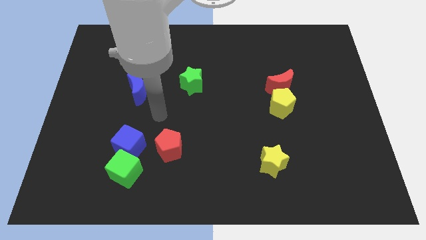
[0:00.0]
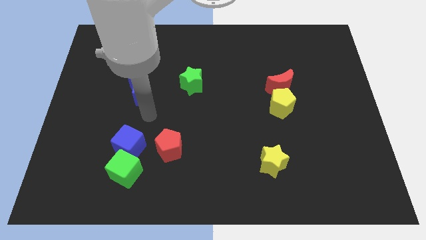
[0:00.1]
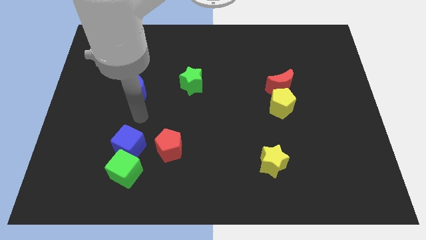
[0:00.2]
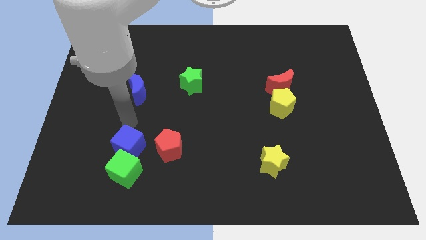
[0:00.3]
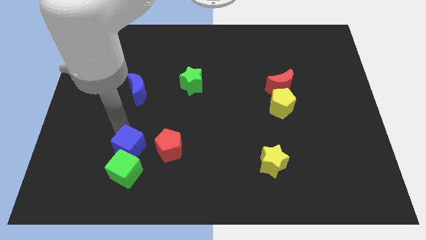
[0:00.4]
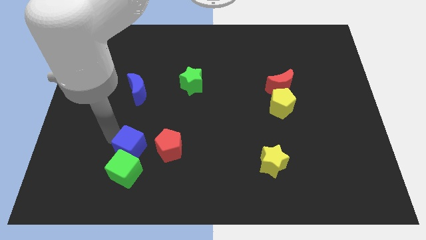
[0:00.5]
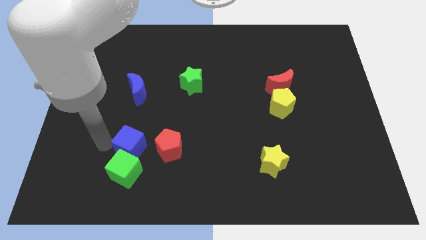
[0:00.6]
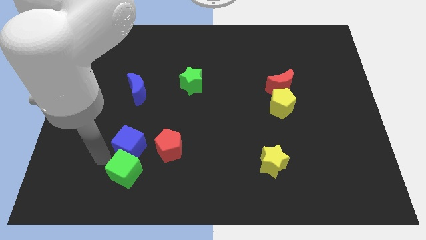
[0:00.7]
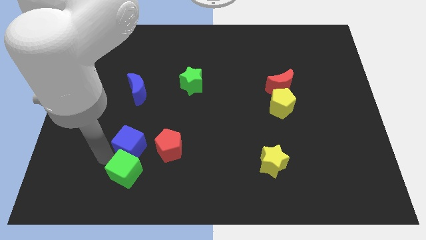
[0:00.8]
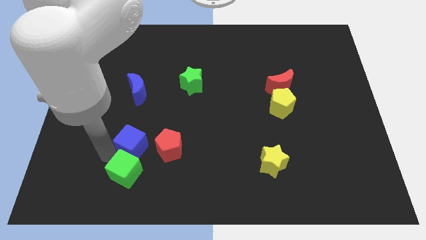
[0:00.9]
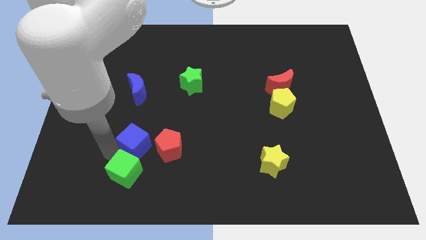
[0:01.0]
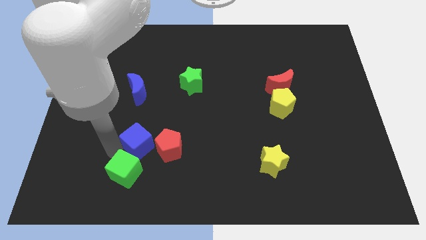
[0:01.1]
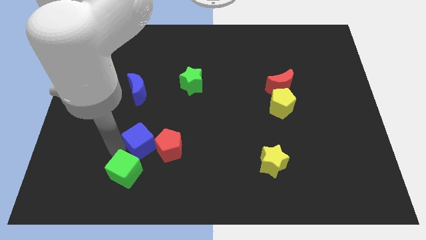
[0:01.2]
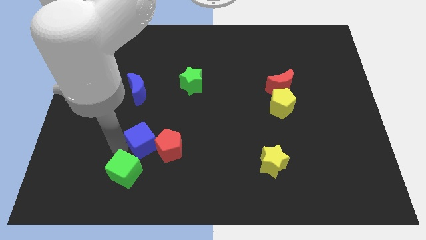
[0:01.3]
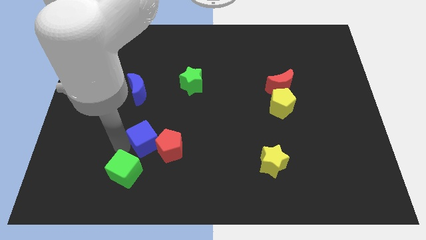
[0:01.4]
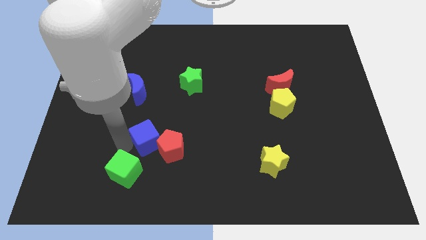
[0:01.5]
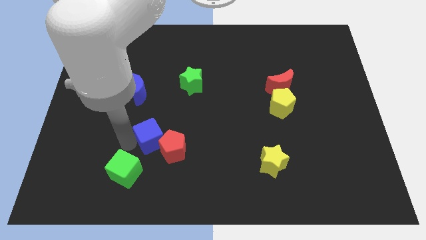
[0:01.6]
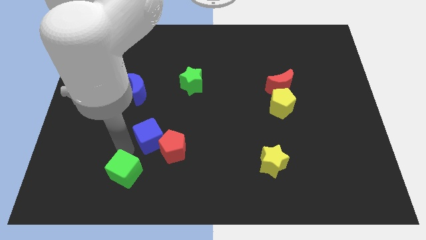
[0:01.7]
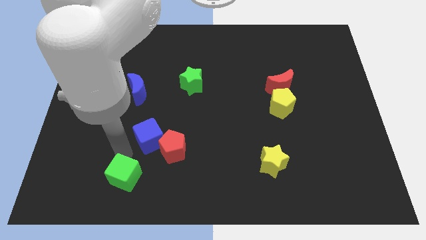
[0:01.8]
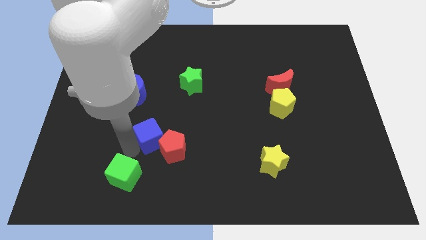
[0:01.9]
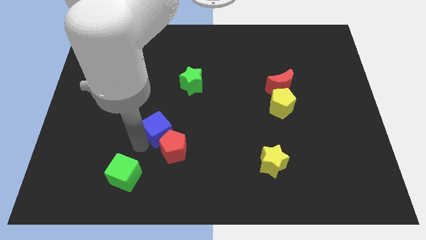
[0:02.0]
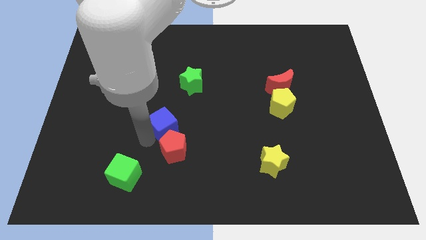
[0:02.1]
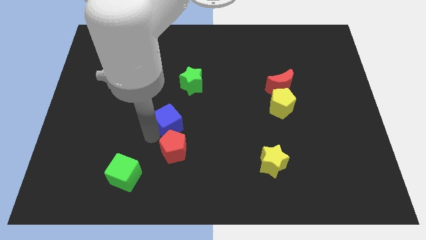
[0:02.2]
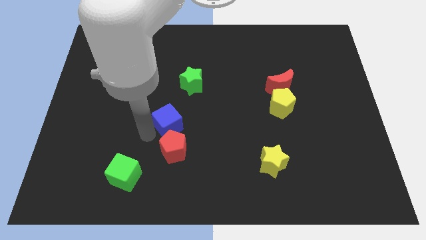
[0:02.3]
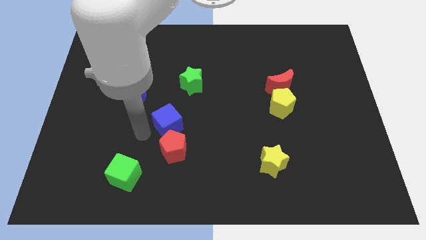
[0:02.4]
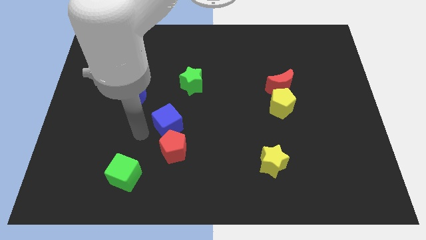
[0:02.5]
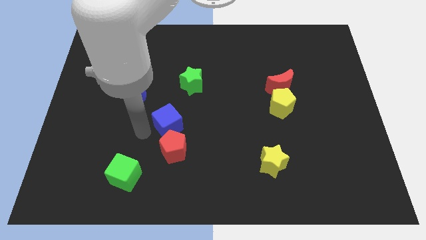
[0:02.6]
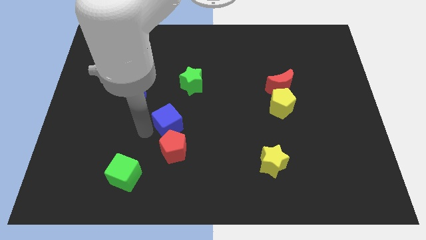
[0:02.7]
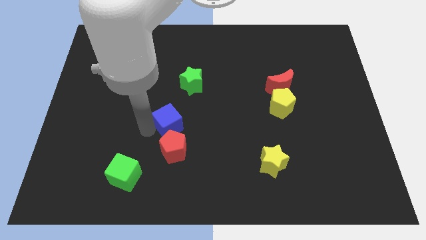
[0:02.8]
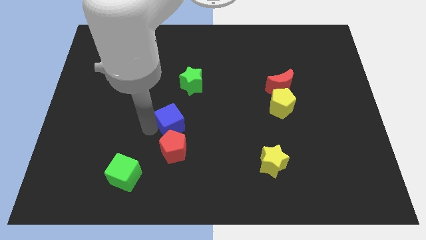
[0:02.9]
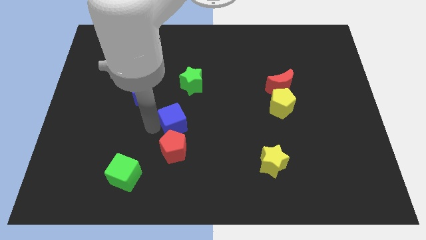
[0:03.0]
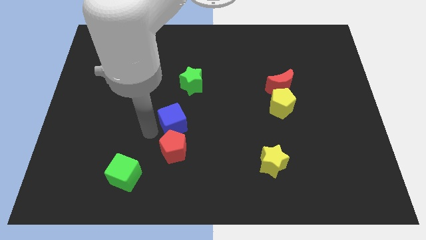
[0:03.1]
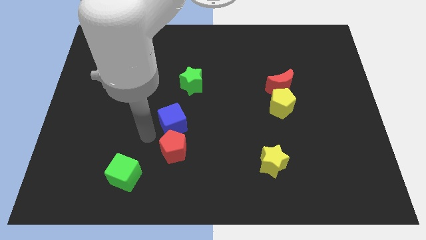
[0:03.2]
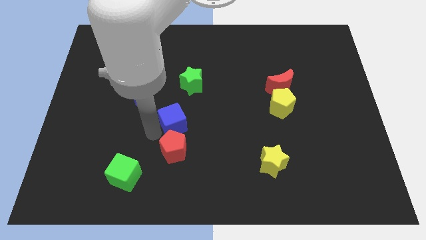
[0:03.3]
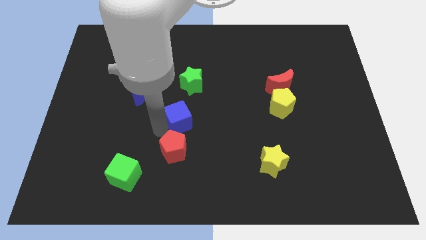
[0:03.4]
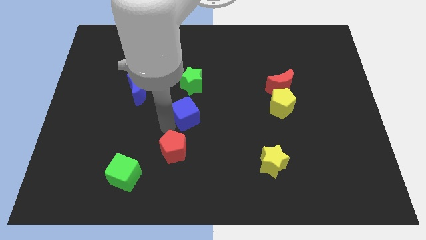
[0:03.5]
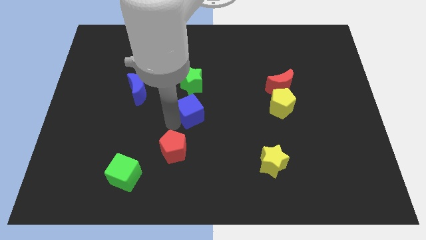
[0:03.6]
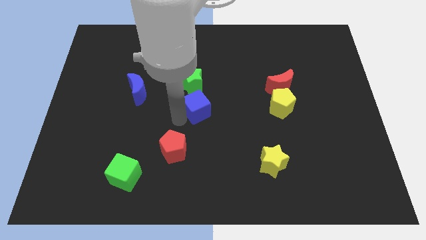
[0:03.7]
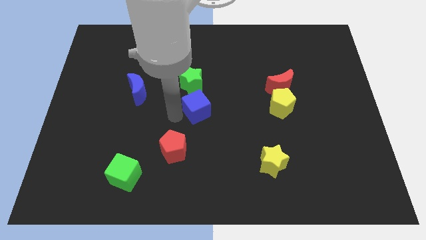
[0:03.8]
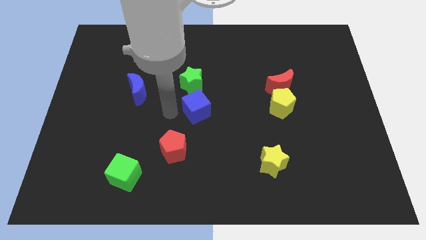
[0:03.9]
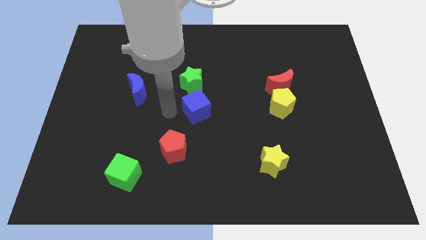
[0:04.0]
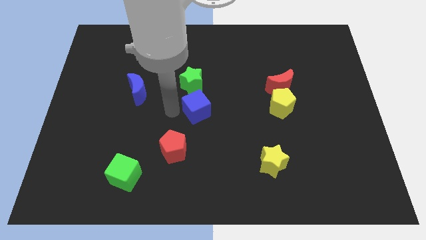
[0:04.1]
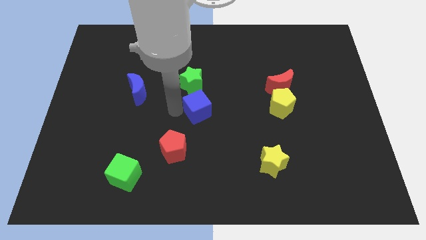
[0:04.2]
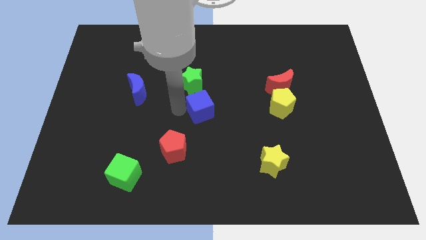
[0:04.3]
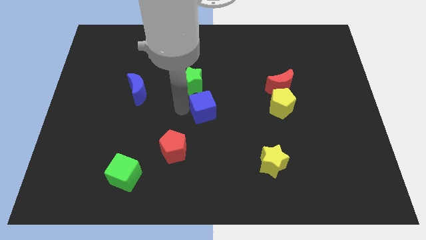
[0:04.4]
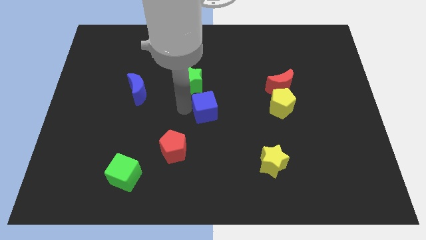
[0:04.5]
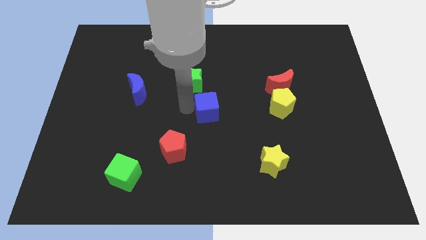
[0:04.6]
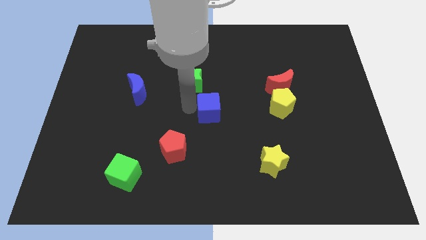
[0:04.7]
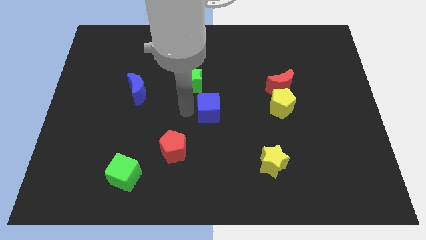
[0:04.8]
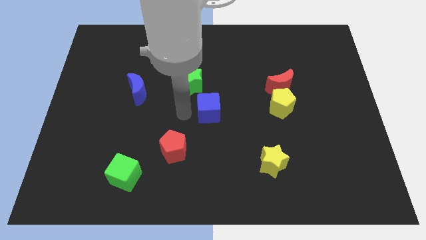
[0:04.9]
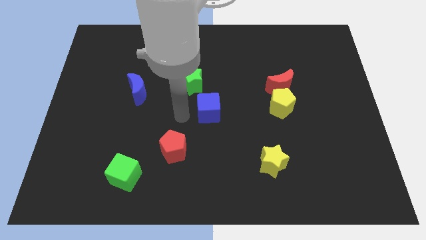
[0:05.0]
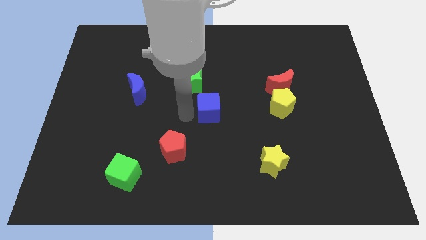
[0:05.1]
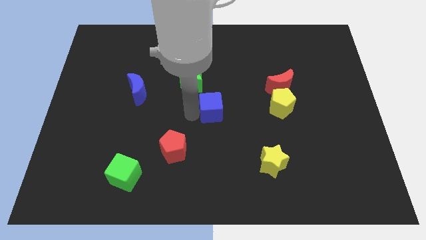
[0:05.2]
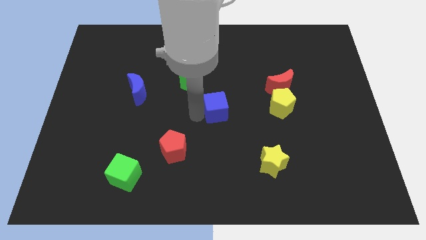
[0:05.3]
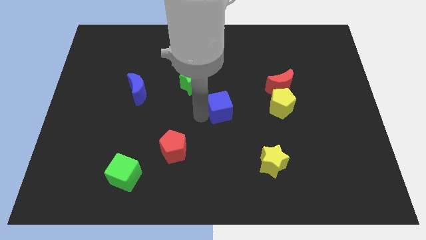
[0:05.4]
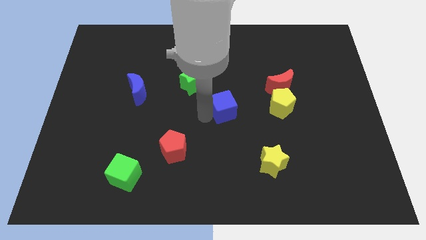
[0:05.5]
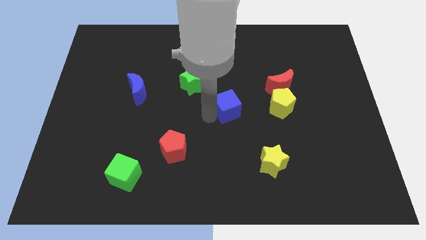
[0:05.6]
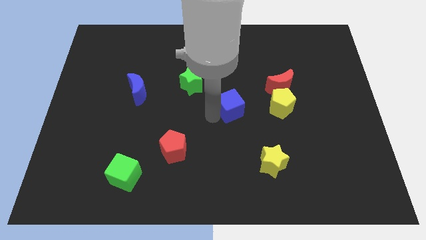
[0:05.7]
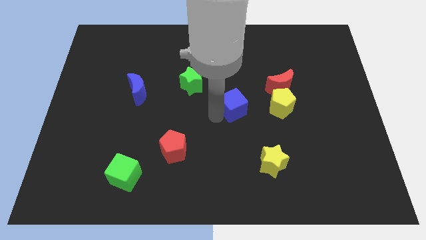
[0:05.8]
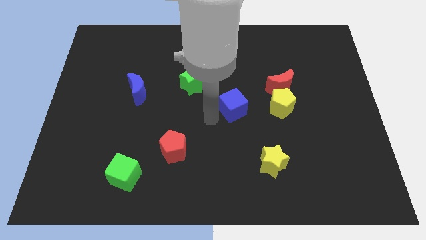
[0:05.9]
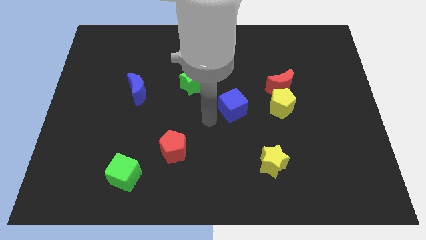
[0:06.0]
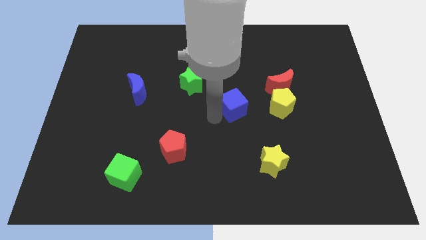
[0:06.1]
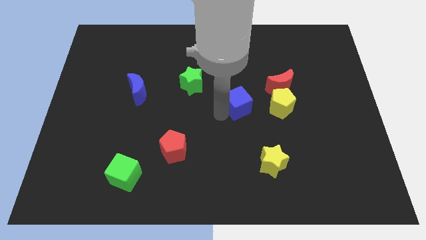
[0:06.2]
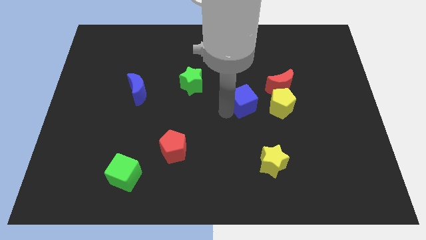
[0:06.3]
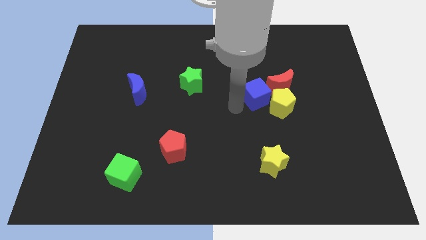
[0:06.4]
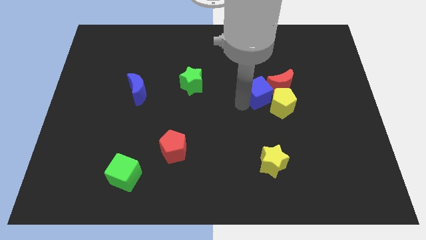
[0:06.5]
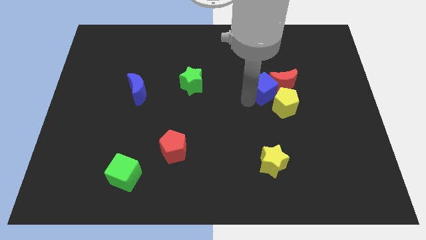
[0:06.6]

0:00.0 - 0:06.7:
move the blue cube to the red moon
